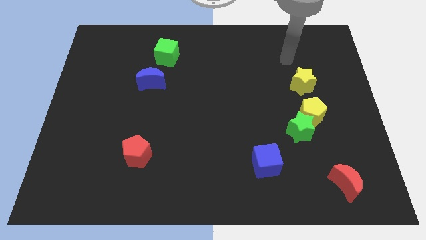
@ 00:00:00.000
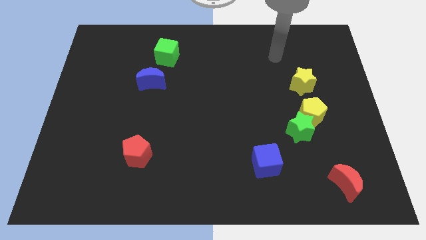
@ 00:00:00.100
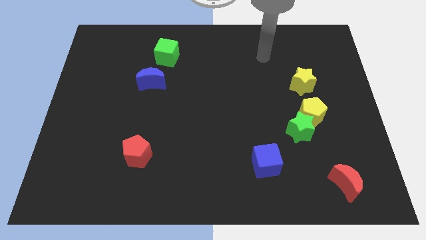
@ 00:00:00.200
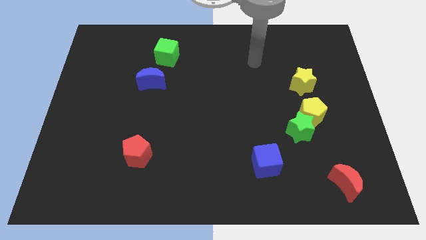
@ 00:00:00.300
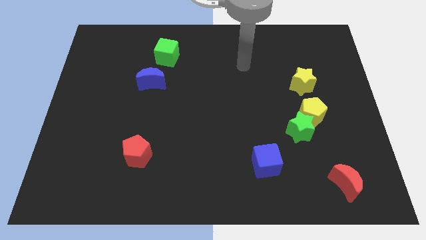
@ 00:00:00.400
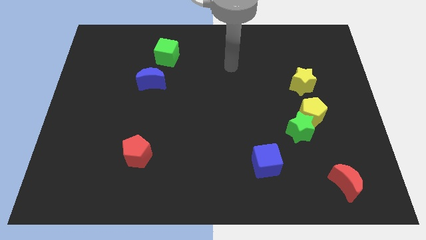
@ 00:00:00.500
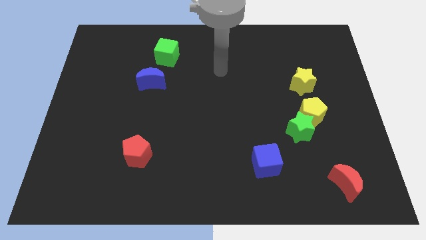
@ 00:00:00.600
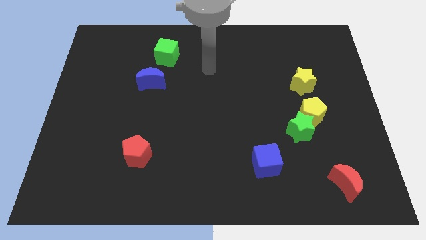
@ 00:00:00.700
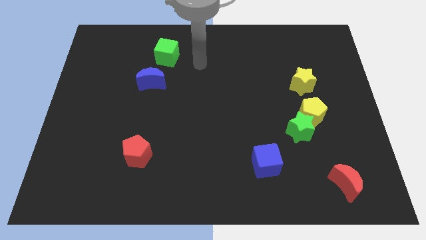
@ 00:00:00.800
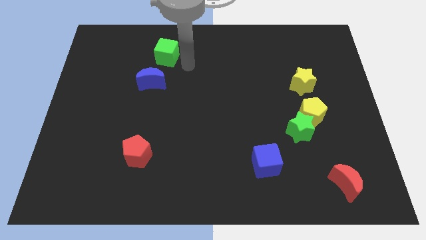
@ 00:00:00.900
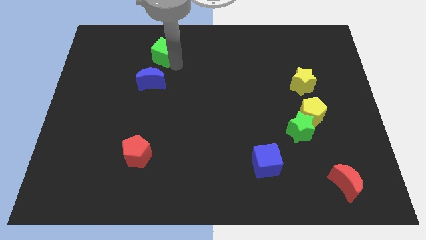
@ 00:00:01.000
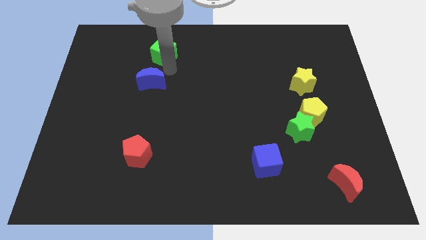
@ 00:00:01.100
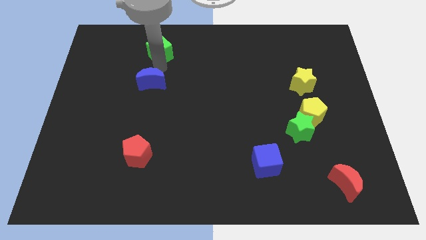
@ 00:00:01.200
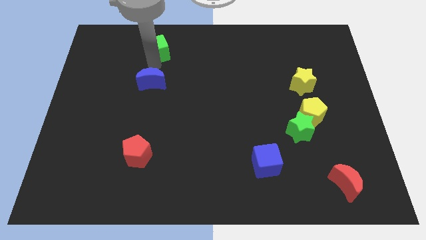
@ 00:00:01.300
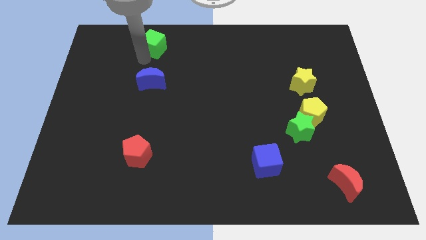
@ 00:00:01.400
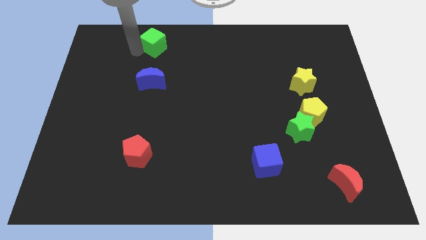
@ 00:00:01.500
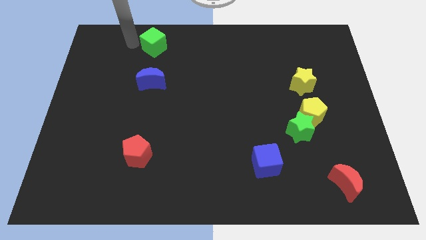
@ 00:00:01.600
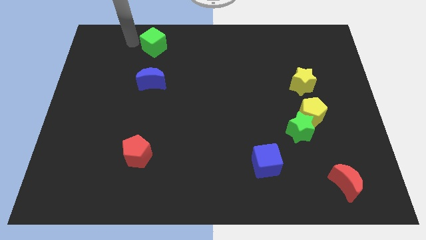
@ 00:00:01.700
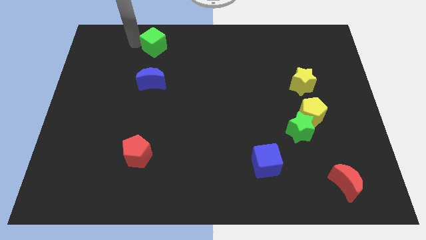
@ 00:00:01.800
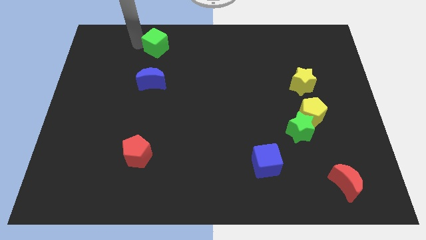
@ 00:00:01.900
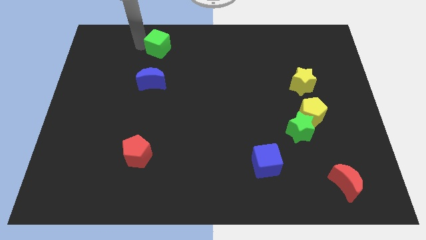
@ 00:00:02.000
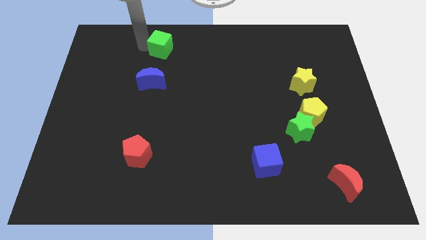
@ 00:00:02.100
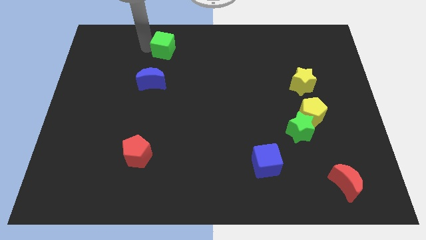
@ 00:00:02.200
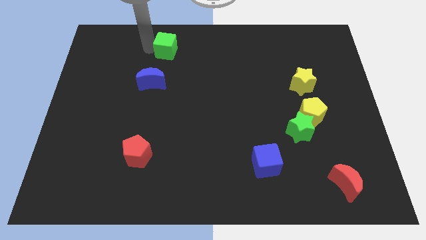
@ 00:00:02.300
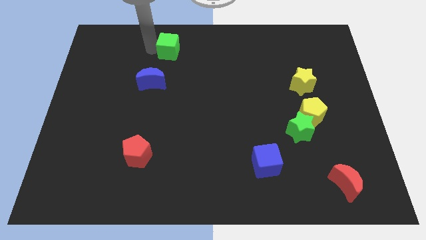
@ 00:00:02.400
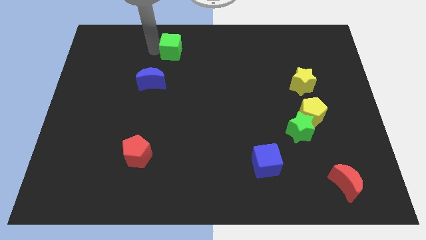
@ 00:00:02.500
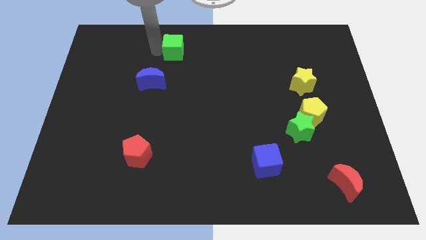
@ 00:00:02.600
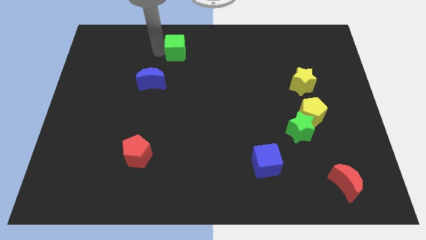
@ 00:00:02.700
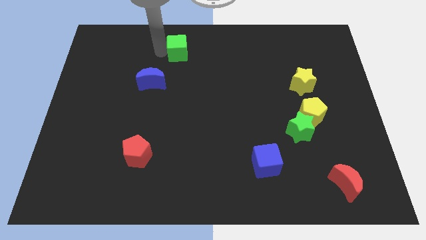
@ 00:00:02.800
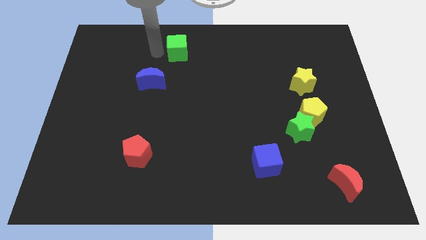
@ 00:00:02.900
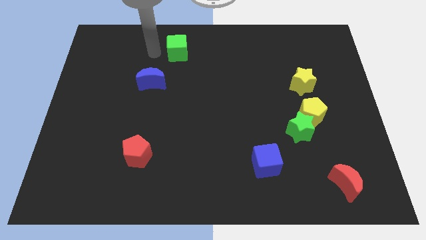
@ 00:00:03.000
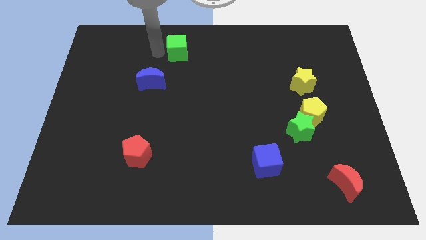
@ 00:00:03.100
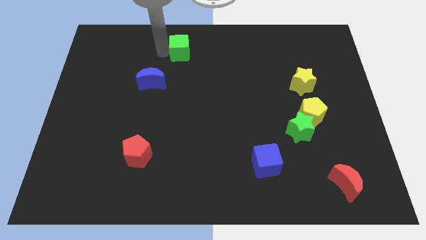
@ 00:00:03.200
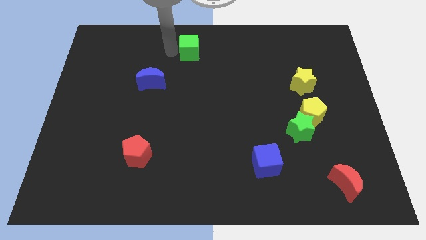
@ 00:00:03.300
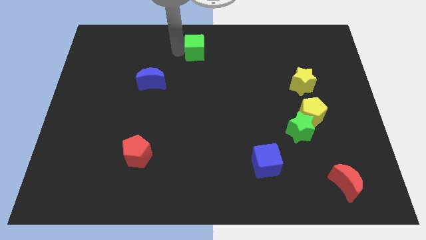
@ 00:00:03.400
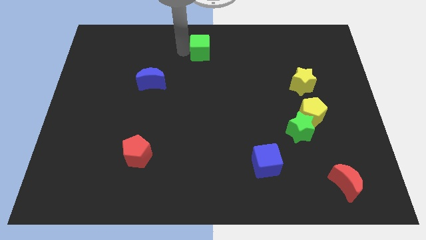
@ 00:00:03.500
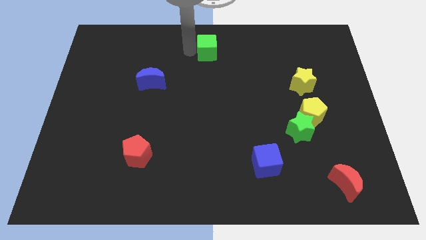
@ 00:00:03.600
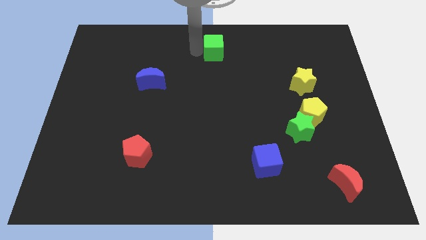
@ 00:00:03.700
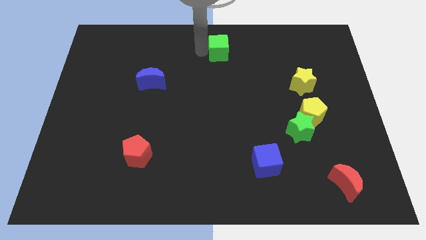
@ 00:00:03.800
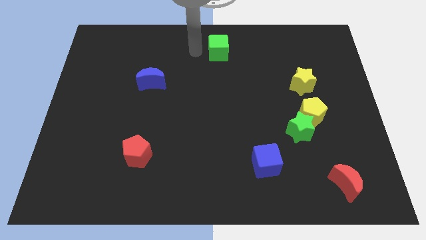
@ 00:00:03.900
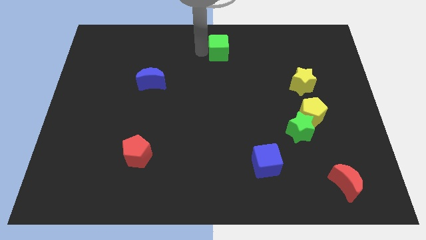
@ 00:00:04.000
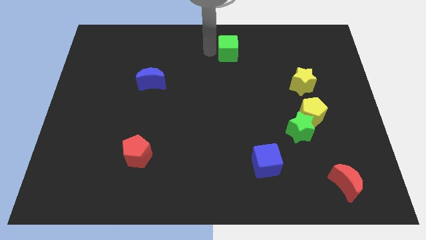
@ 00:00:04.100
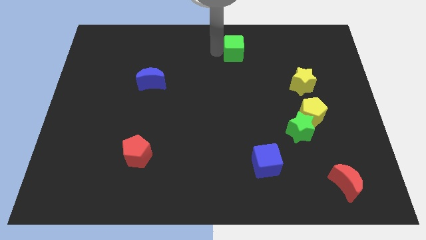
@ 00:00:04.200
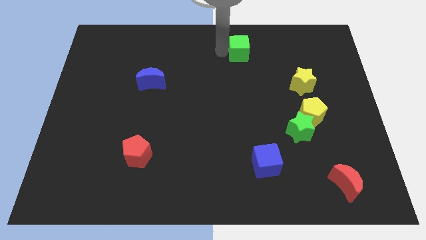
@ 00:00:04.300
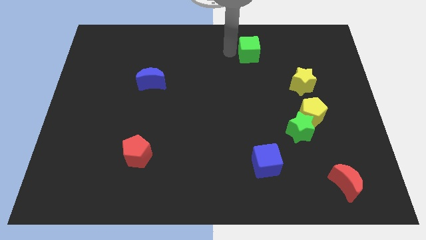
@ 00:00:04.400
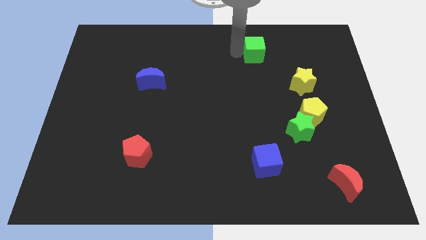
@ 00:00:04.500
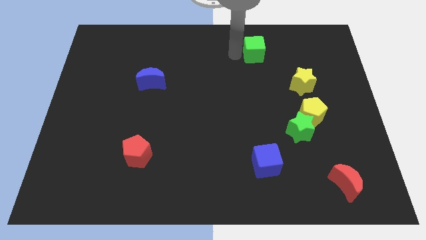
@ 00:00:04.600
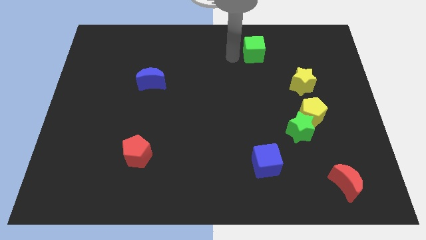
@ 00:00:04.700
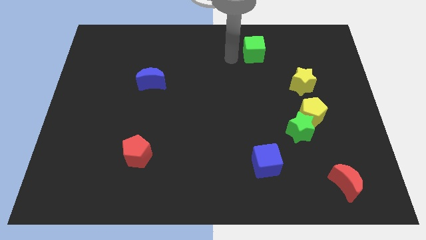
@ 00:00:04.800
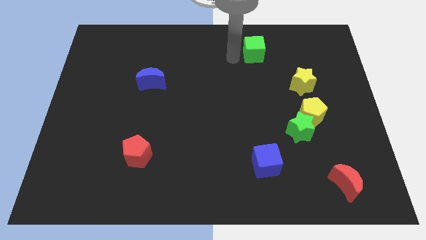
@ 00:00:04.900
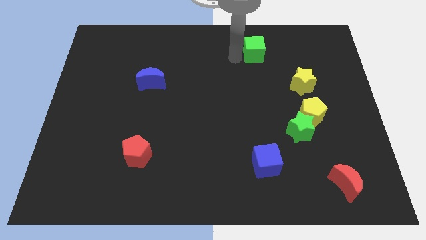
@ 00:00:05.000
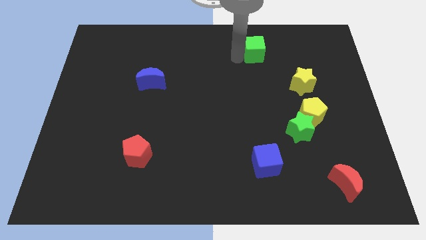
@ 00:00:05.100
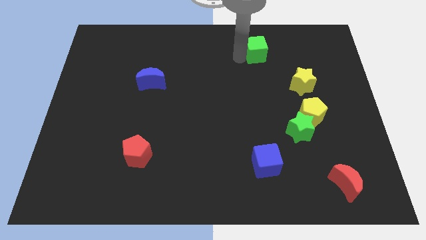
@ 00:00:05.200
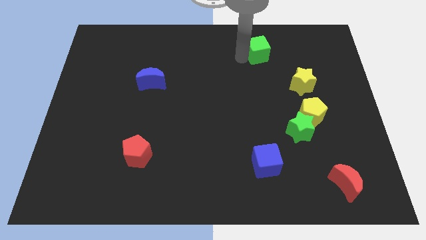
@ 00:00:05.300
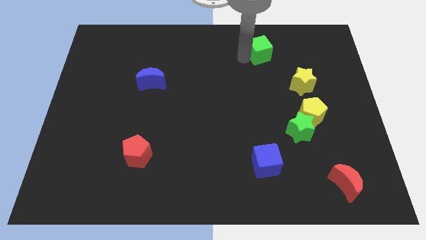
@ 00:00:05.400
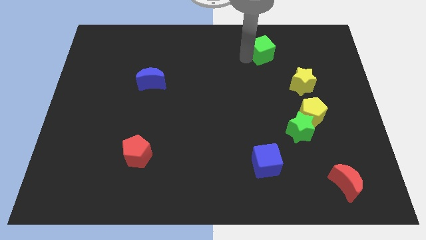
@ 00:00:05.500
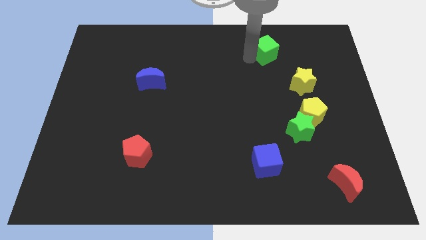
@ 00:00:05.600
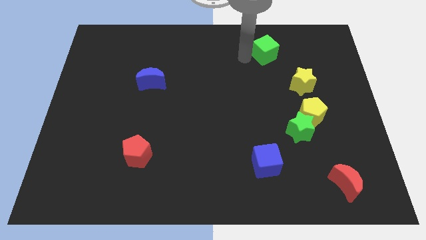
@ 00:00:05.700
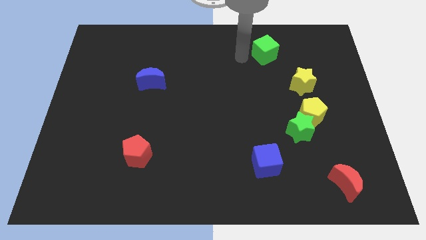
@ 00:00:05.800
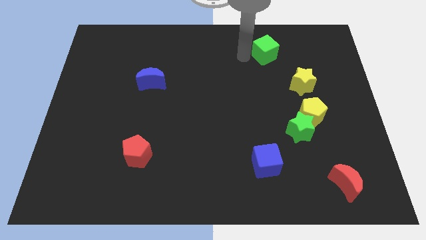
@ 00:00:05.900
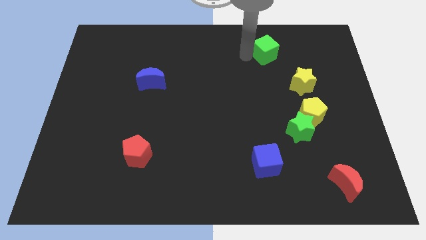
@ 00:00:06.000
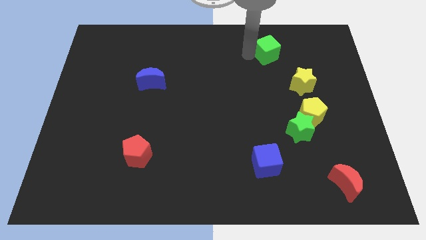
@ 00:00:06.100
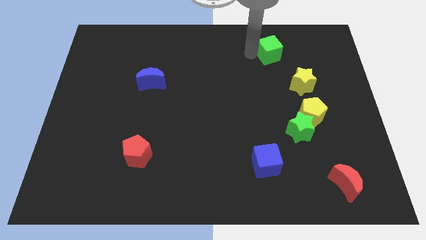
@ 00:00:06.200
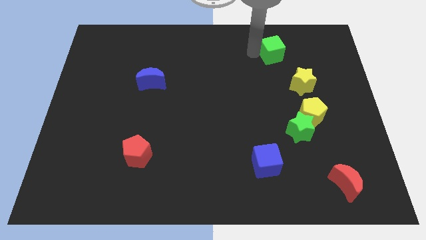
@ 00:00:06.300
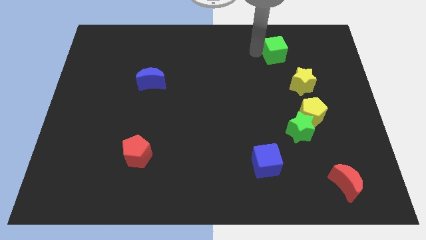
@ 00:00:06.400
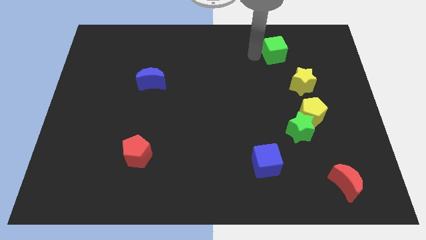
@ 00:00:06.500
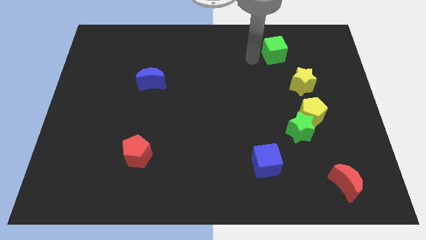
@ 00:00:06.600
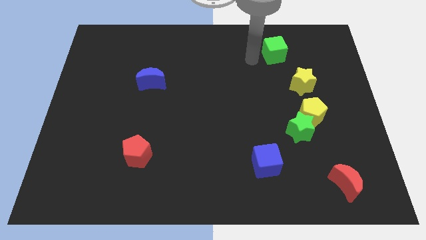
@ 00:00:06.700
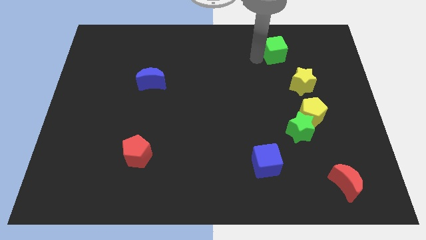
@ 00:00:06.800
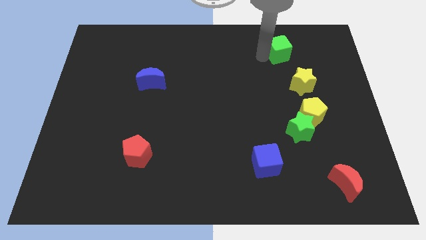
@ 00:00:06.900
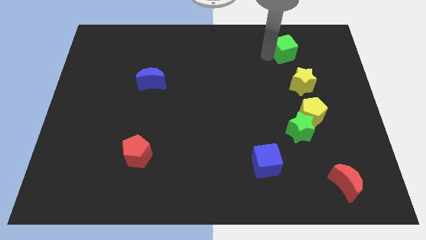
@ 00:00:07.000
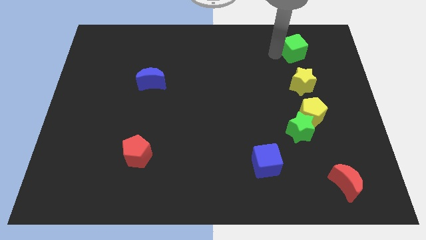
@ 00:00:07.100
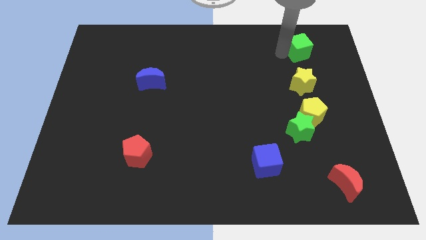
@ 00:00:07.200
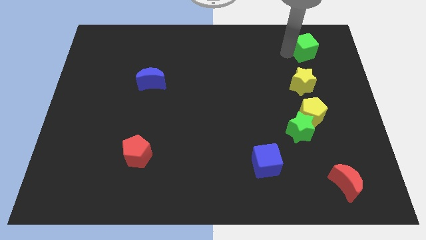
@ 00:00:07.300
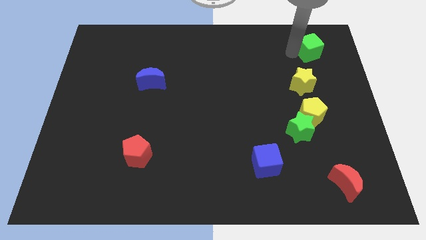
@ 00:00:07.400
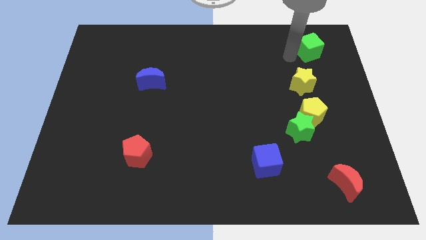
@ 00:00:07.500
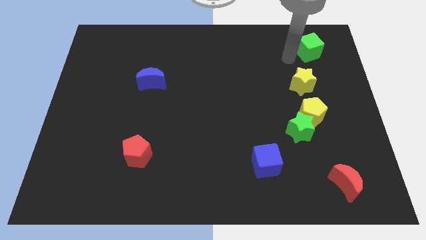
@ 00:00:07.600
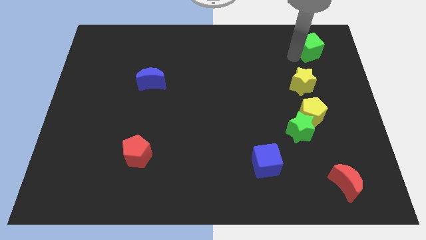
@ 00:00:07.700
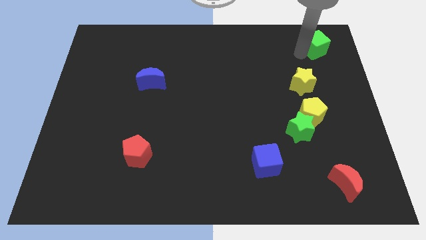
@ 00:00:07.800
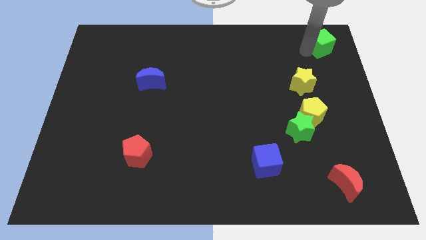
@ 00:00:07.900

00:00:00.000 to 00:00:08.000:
put the green cube to the top right
